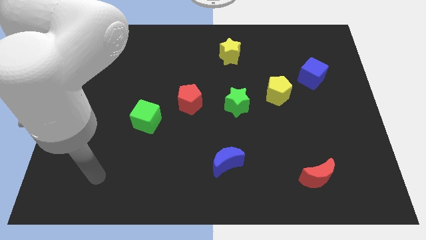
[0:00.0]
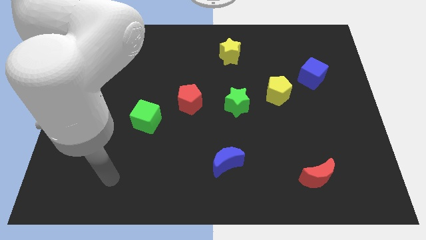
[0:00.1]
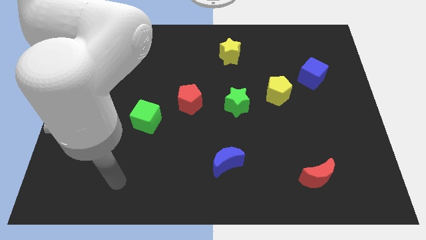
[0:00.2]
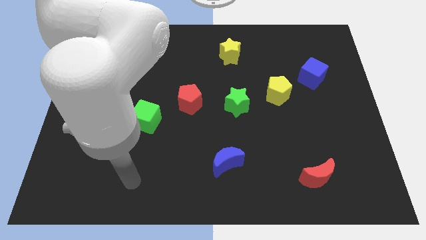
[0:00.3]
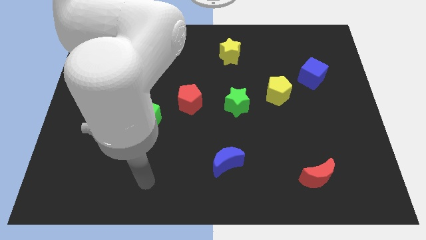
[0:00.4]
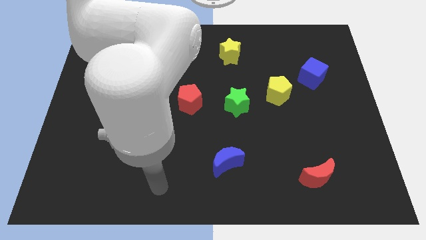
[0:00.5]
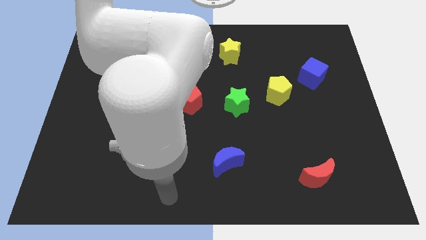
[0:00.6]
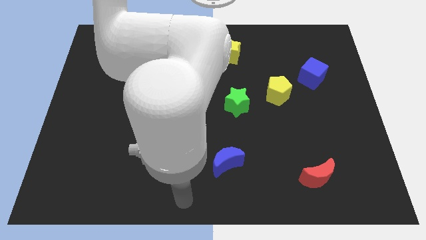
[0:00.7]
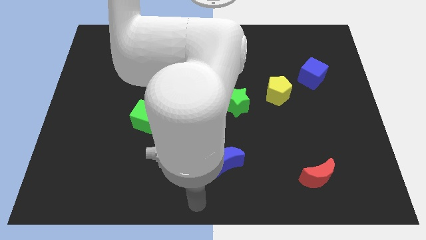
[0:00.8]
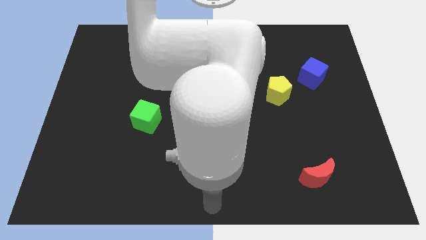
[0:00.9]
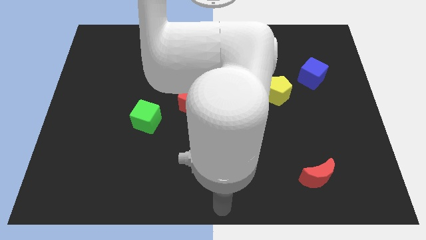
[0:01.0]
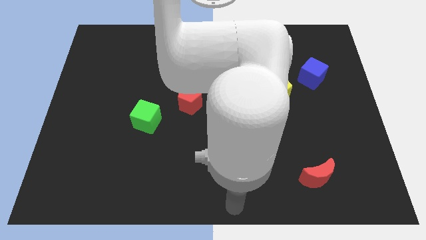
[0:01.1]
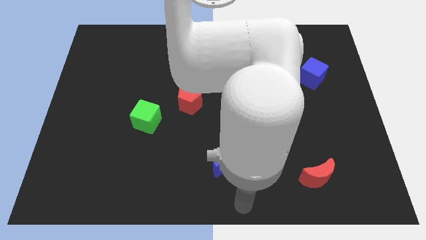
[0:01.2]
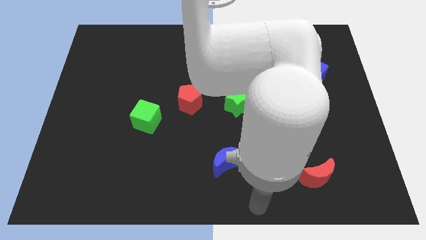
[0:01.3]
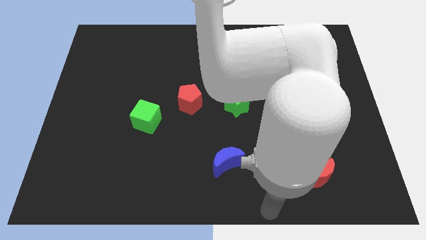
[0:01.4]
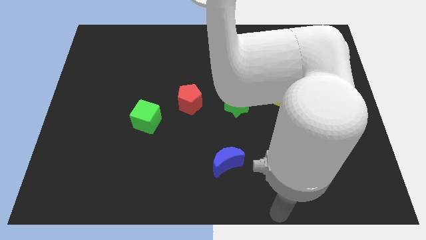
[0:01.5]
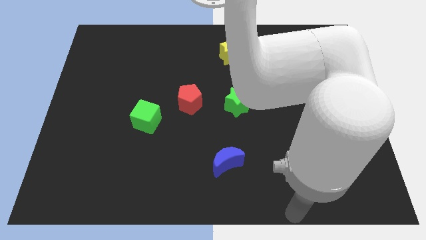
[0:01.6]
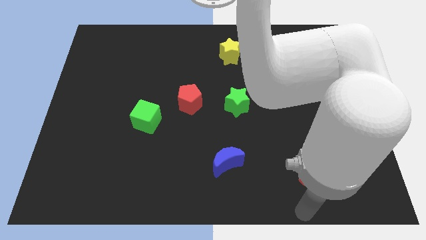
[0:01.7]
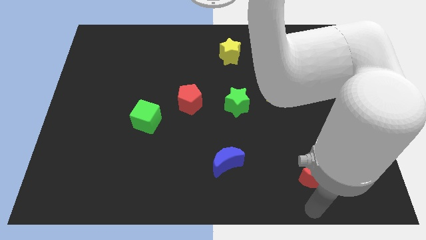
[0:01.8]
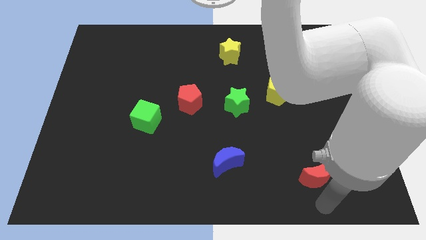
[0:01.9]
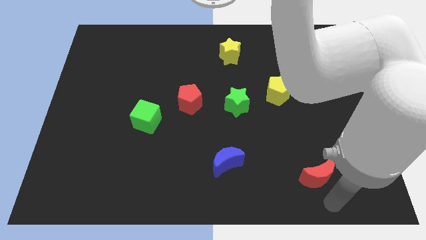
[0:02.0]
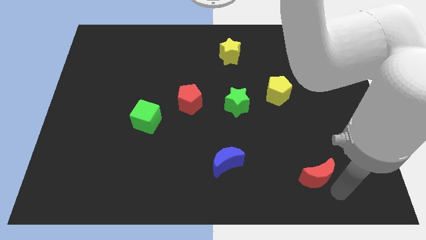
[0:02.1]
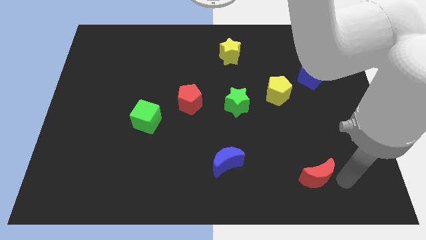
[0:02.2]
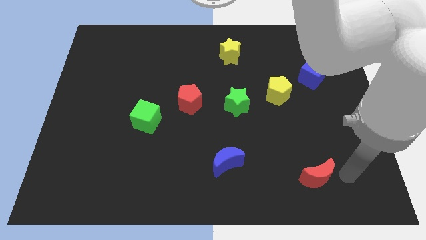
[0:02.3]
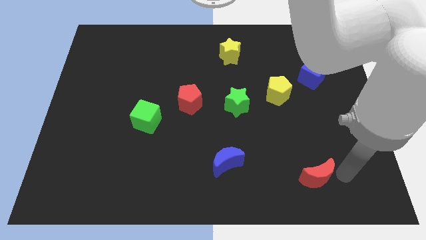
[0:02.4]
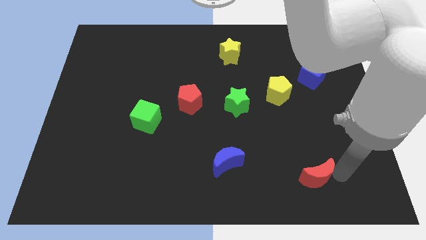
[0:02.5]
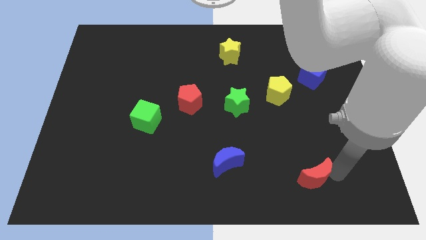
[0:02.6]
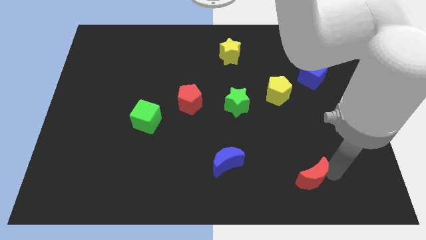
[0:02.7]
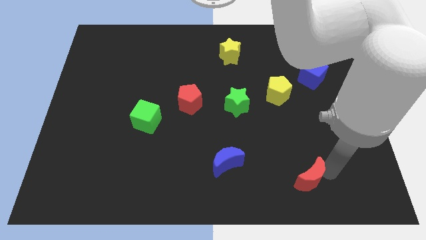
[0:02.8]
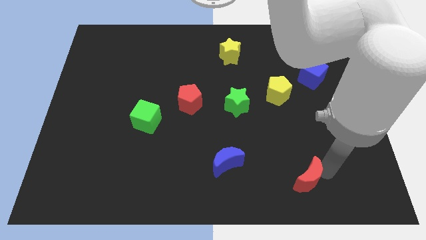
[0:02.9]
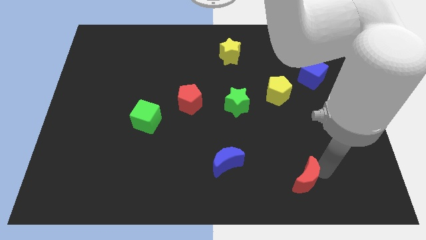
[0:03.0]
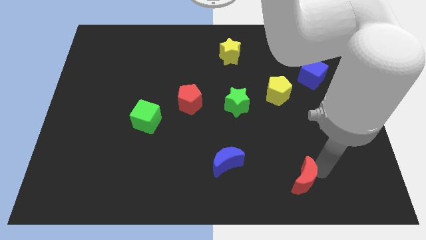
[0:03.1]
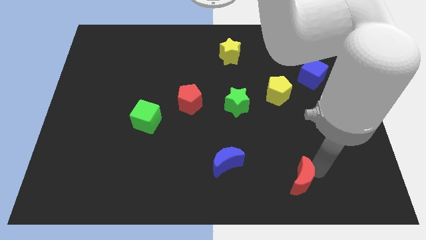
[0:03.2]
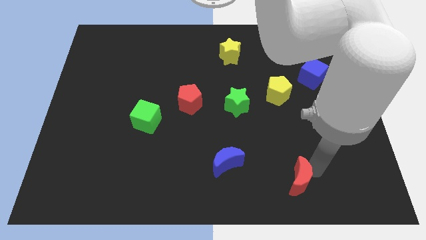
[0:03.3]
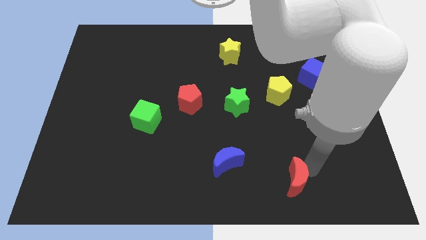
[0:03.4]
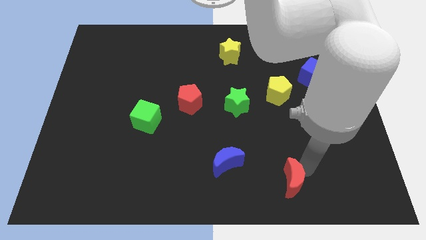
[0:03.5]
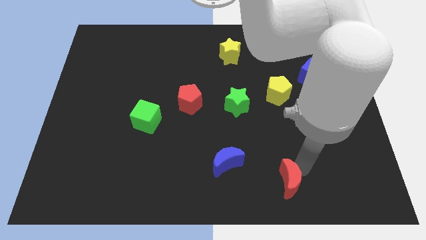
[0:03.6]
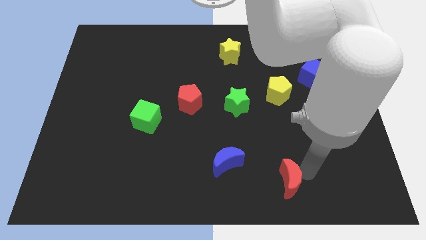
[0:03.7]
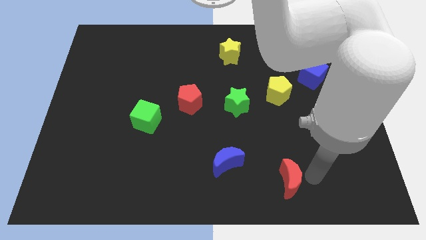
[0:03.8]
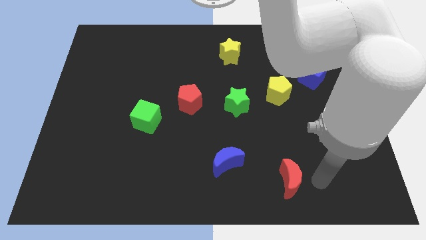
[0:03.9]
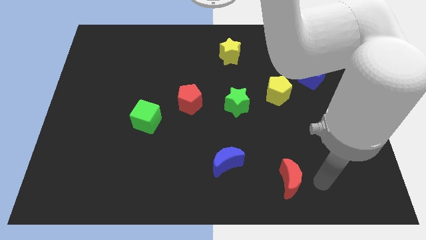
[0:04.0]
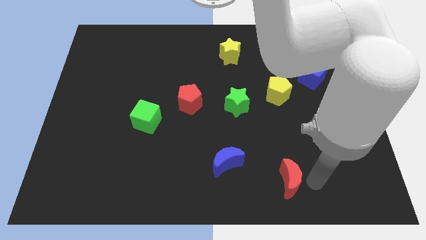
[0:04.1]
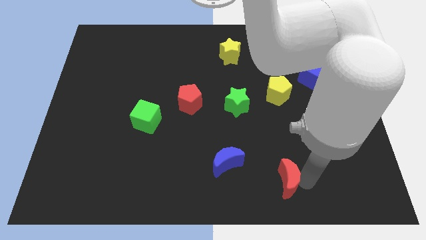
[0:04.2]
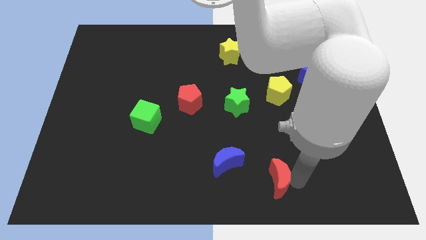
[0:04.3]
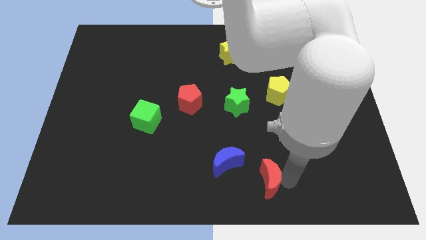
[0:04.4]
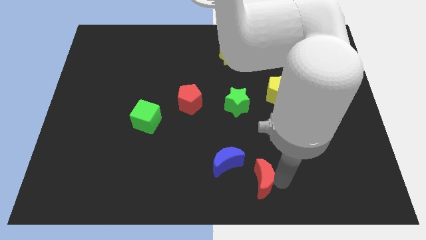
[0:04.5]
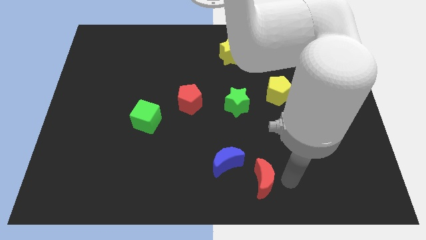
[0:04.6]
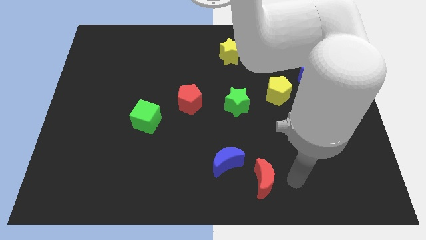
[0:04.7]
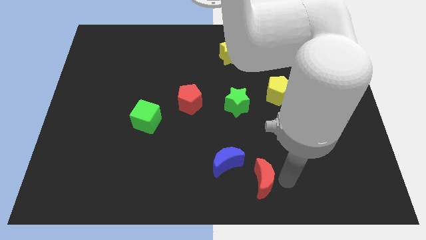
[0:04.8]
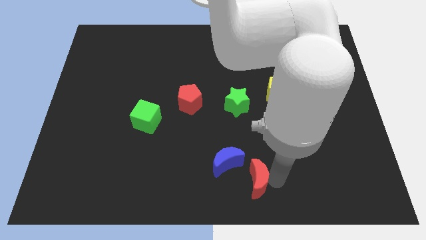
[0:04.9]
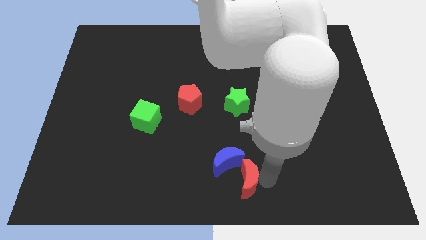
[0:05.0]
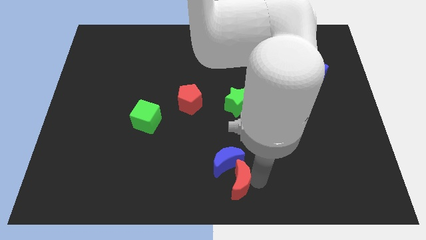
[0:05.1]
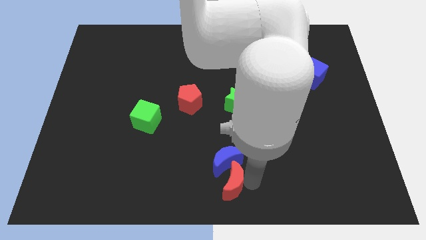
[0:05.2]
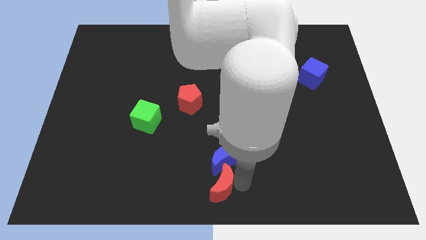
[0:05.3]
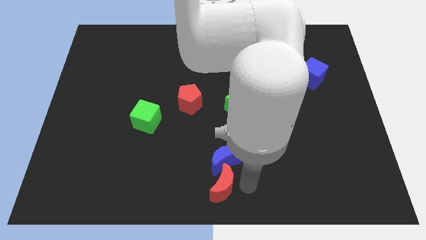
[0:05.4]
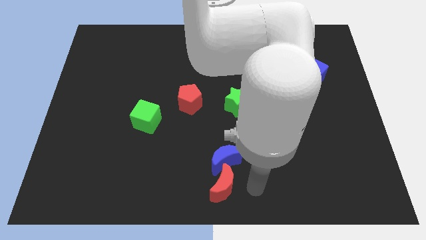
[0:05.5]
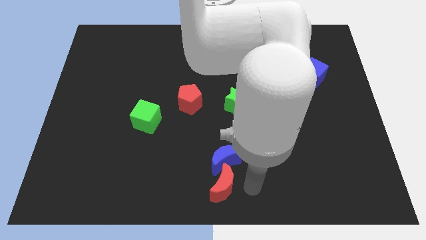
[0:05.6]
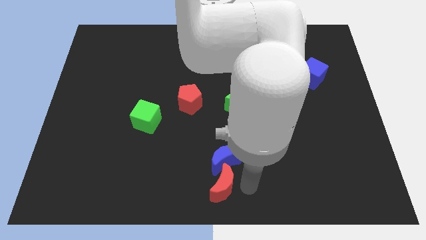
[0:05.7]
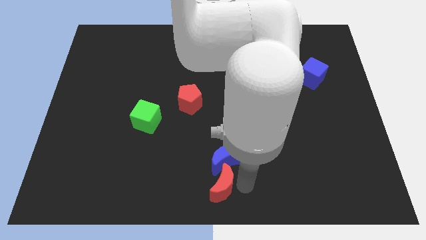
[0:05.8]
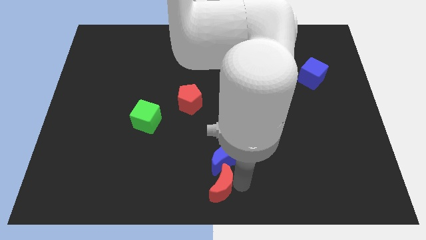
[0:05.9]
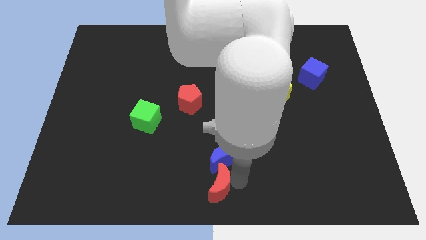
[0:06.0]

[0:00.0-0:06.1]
slide the red moon left

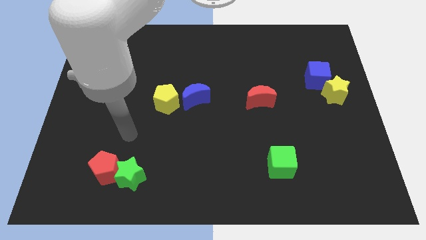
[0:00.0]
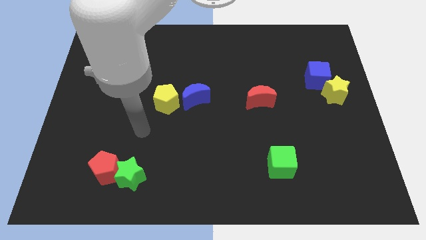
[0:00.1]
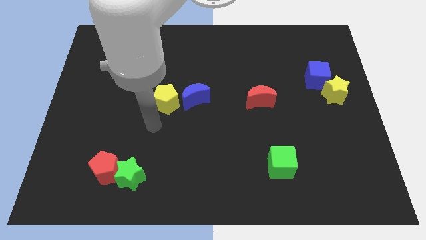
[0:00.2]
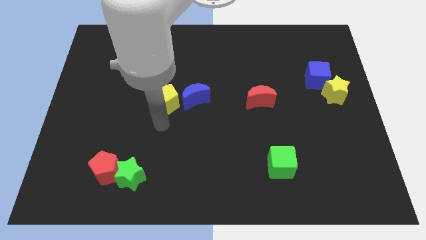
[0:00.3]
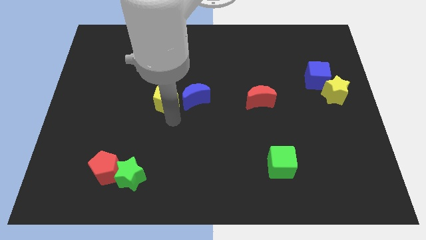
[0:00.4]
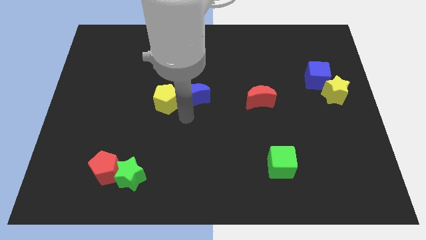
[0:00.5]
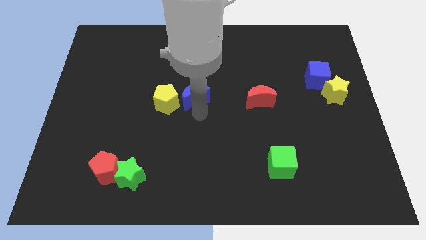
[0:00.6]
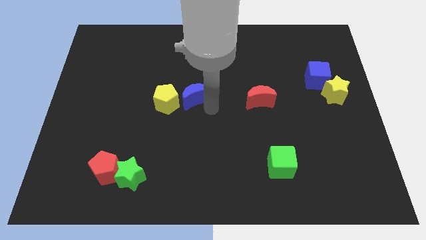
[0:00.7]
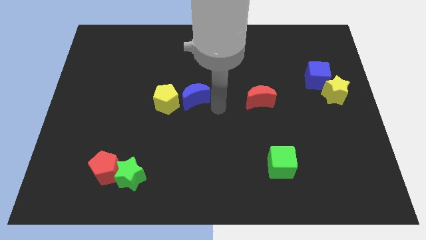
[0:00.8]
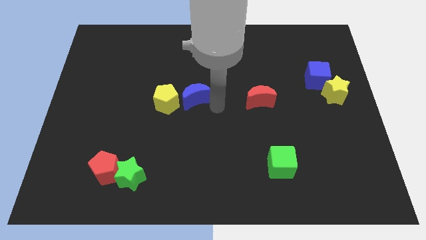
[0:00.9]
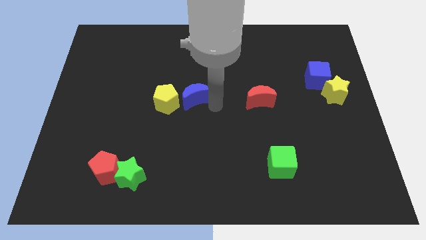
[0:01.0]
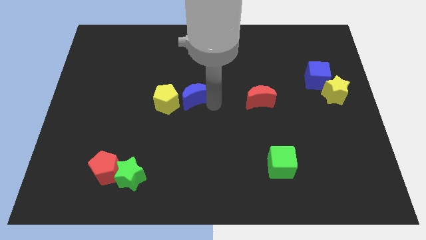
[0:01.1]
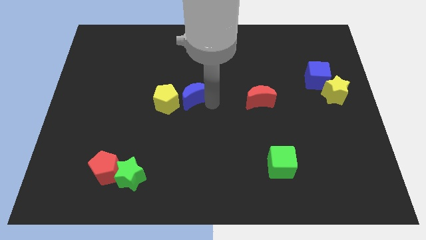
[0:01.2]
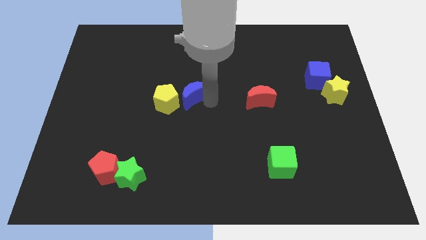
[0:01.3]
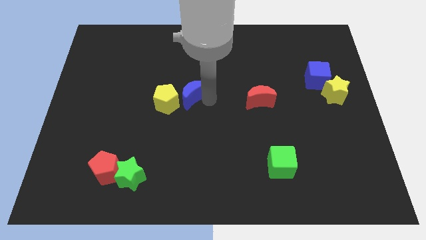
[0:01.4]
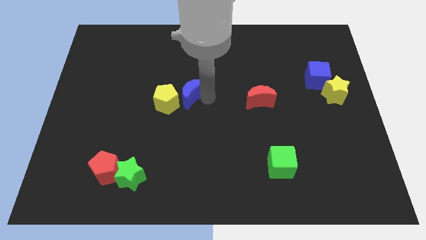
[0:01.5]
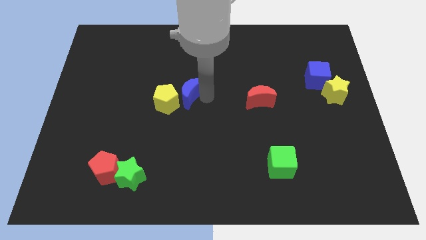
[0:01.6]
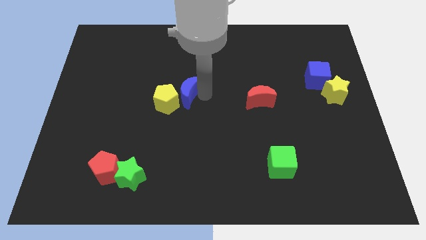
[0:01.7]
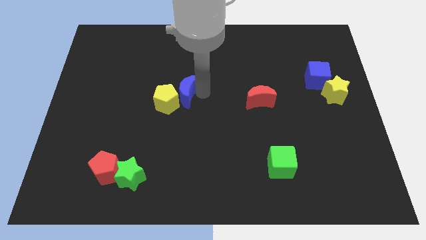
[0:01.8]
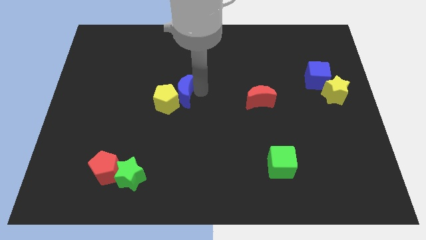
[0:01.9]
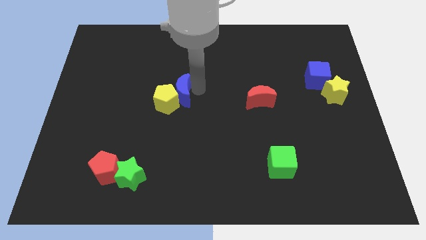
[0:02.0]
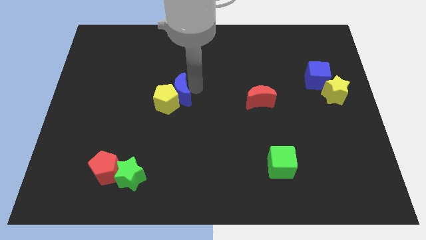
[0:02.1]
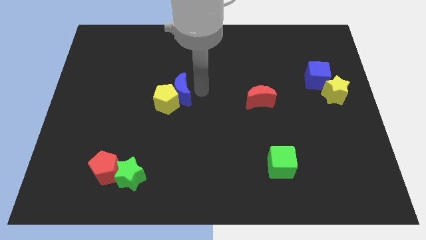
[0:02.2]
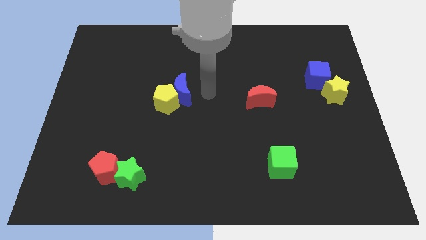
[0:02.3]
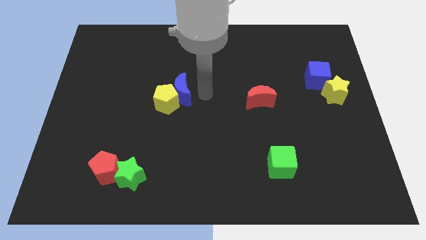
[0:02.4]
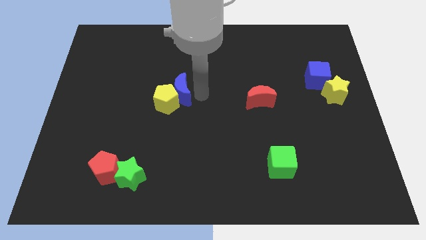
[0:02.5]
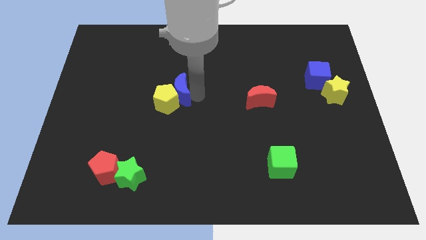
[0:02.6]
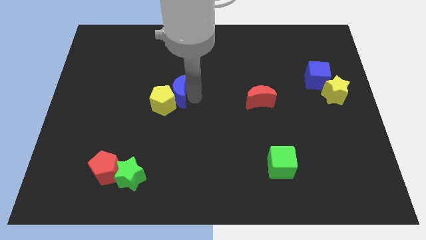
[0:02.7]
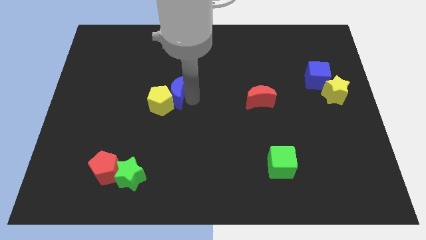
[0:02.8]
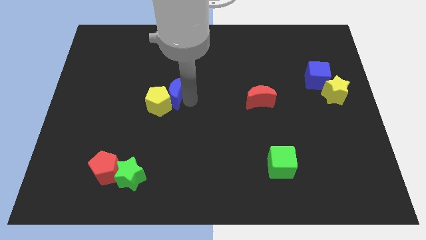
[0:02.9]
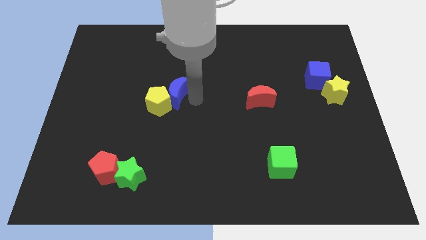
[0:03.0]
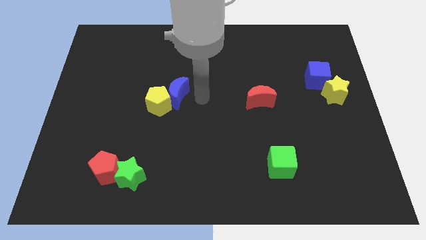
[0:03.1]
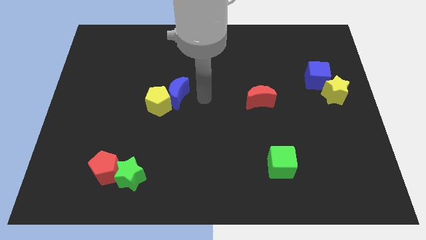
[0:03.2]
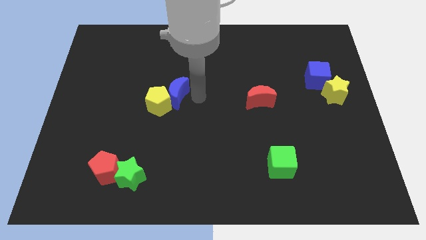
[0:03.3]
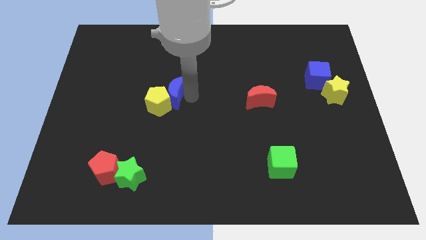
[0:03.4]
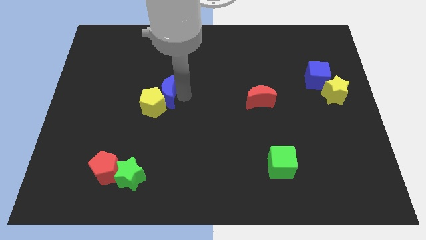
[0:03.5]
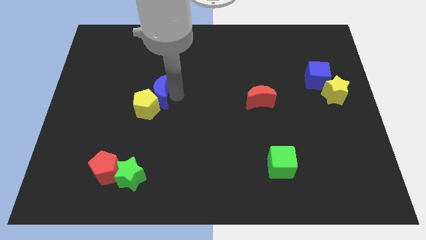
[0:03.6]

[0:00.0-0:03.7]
move the blue moon to the left a little
